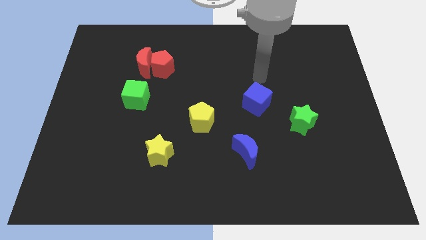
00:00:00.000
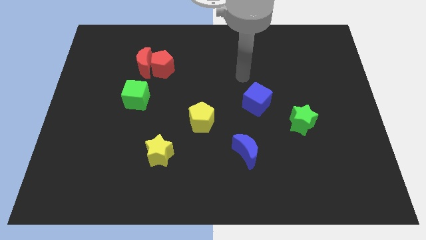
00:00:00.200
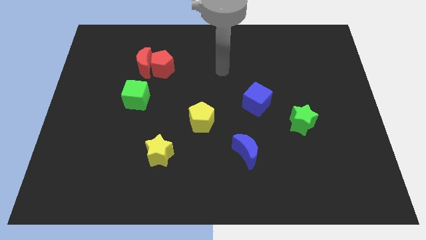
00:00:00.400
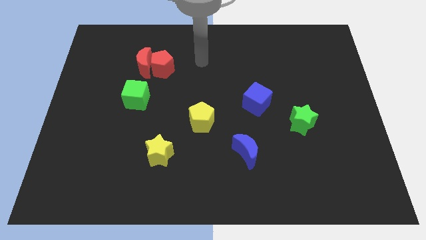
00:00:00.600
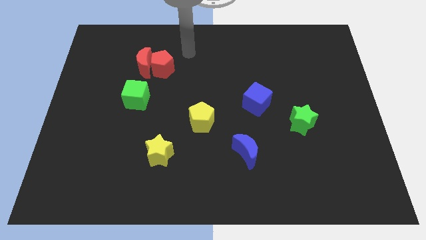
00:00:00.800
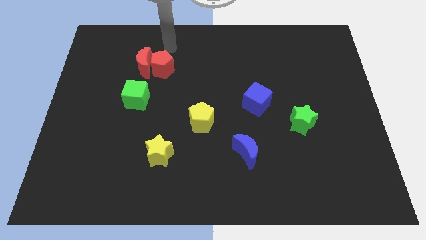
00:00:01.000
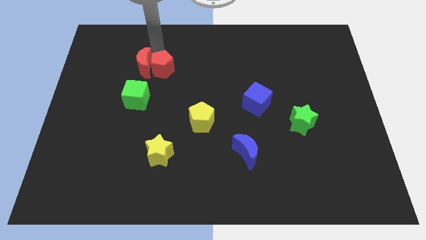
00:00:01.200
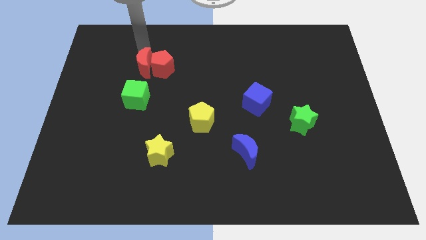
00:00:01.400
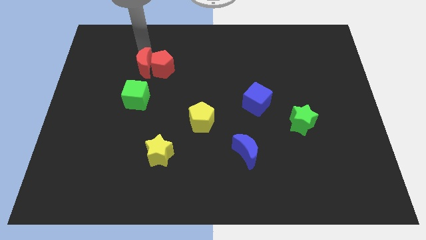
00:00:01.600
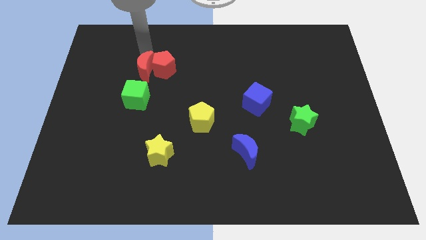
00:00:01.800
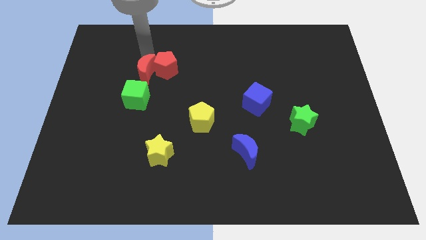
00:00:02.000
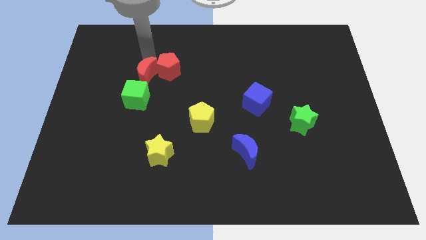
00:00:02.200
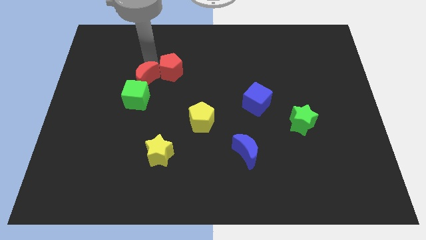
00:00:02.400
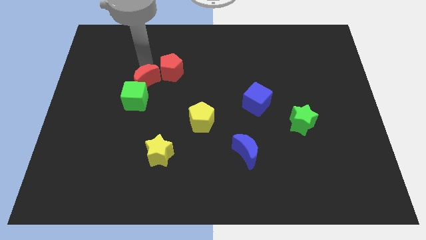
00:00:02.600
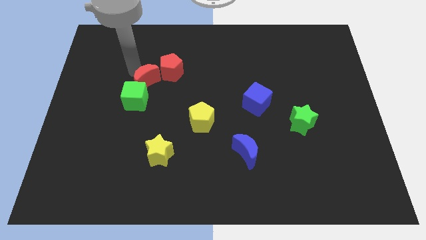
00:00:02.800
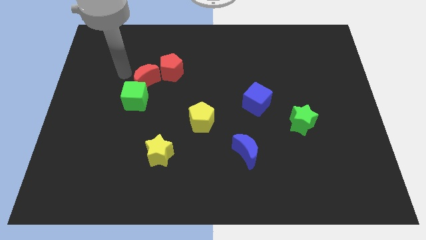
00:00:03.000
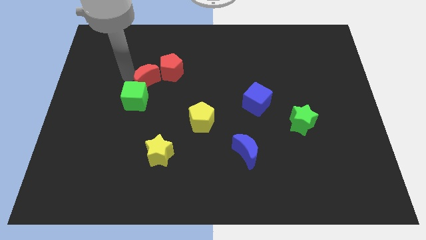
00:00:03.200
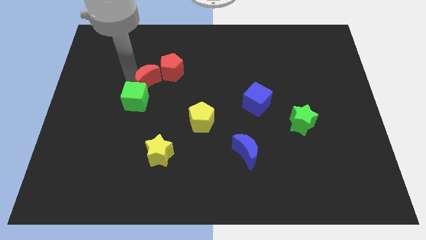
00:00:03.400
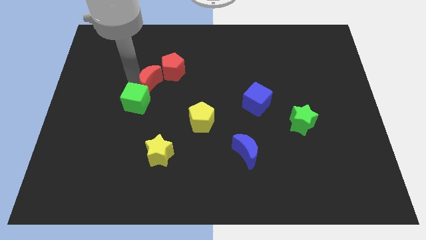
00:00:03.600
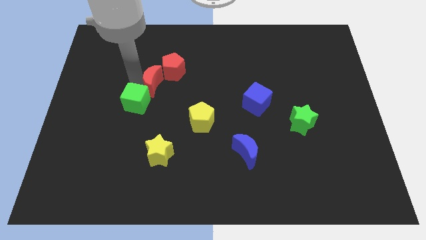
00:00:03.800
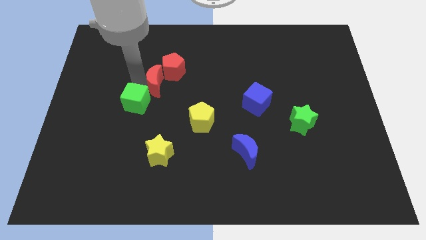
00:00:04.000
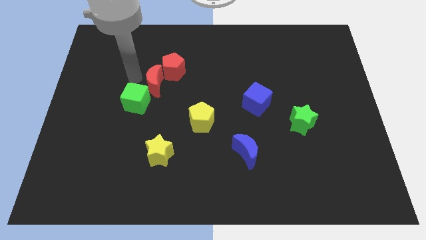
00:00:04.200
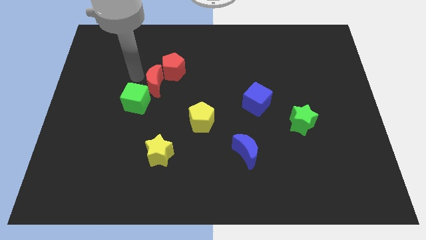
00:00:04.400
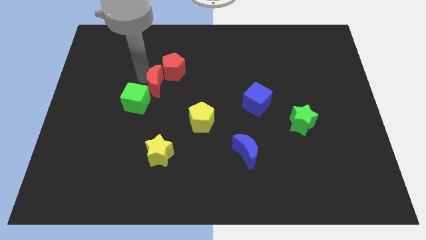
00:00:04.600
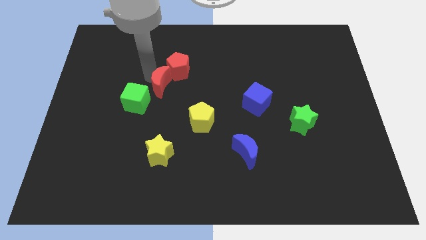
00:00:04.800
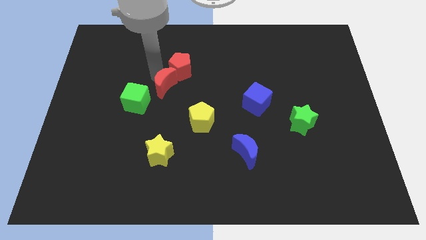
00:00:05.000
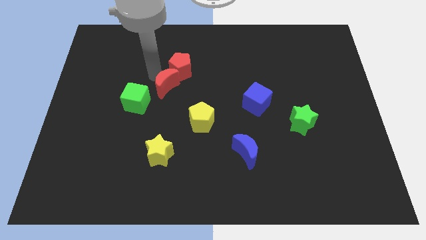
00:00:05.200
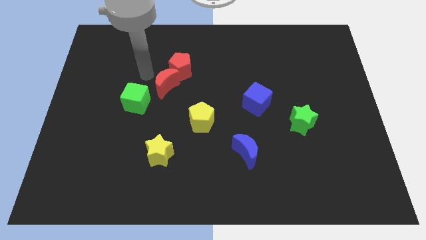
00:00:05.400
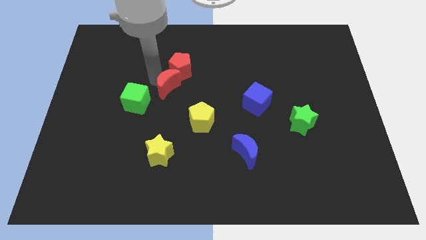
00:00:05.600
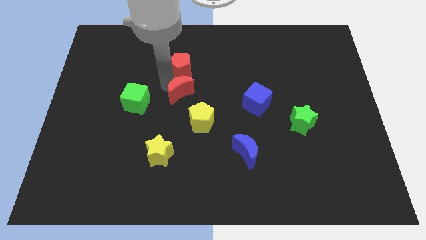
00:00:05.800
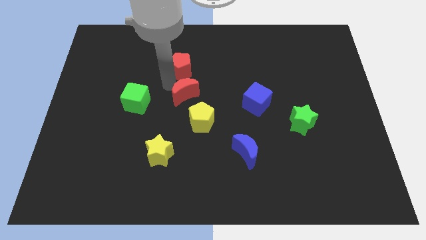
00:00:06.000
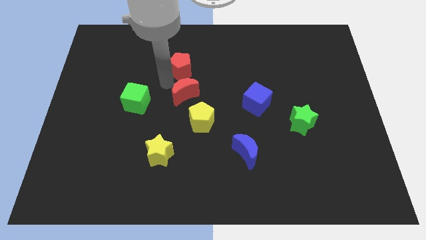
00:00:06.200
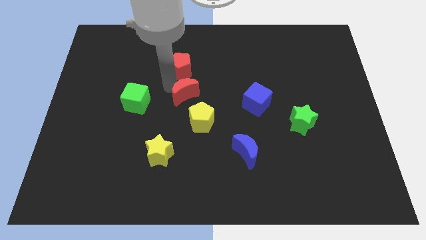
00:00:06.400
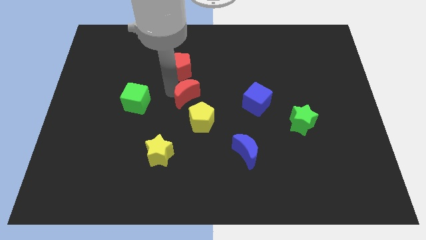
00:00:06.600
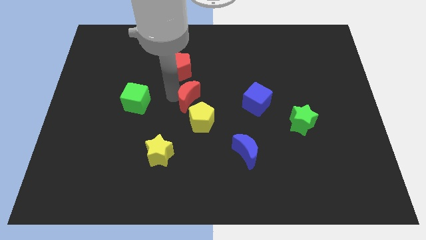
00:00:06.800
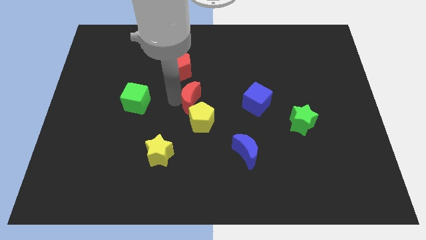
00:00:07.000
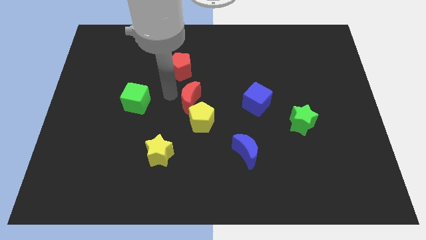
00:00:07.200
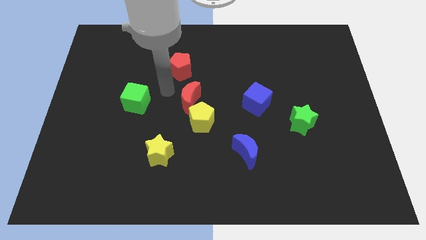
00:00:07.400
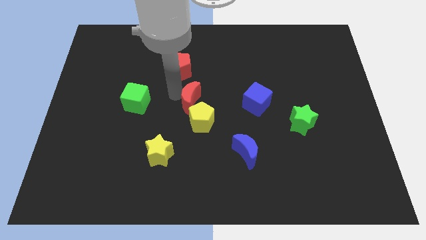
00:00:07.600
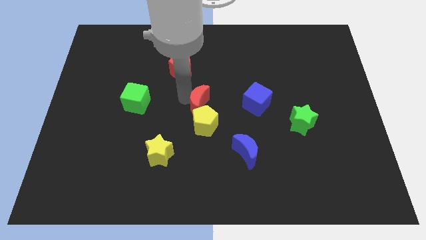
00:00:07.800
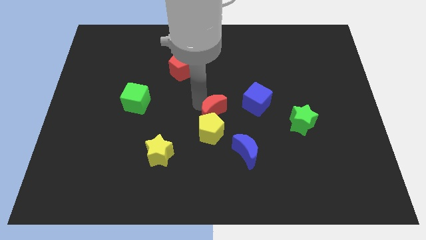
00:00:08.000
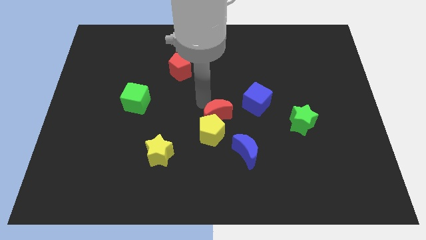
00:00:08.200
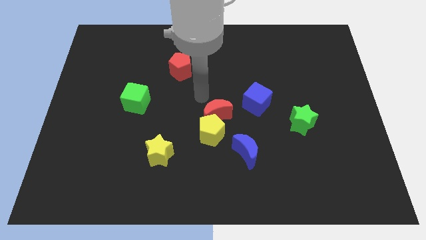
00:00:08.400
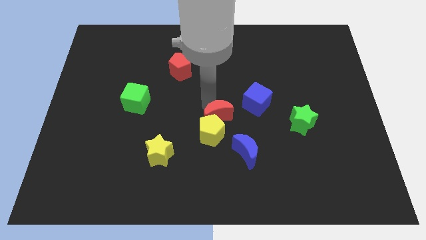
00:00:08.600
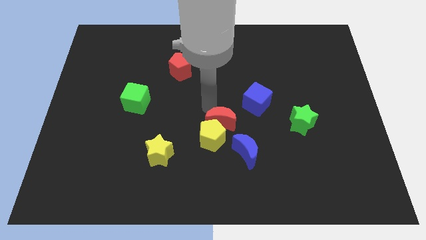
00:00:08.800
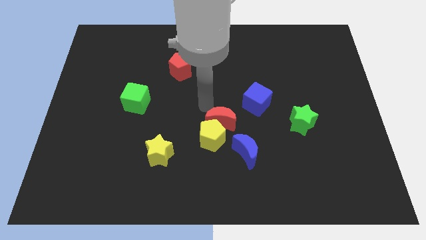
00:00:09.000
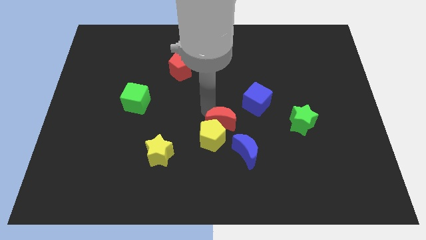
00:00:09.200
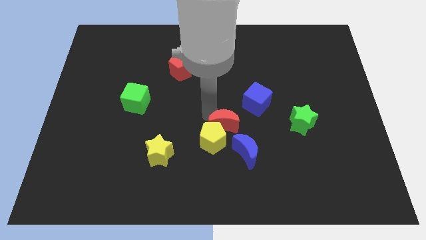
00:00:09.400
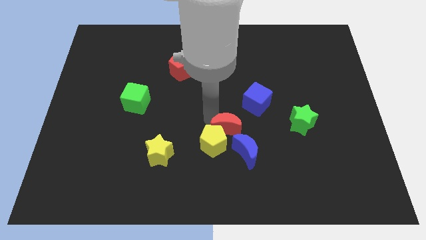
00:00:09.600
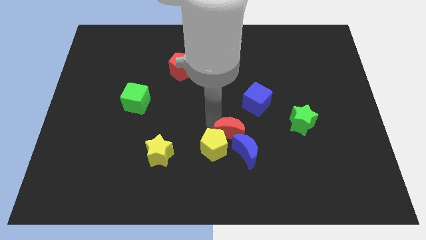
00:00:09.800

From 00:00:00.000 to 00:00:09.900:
push the red moon to the blue moon

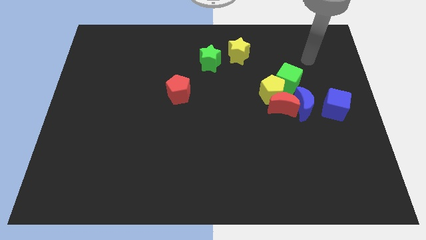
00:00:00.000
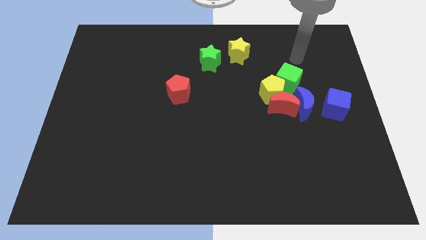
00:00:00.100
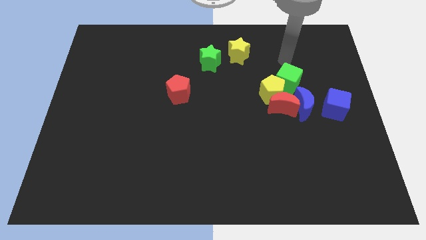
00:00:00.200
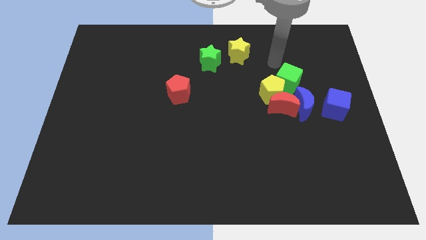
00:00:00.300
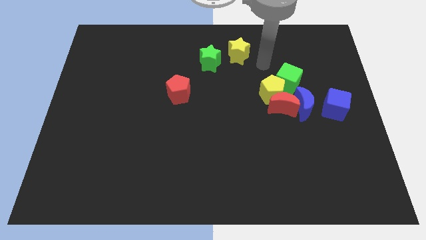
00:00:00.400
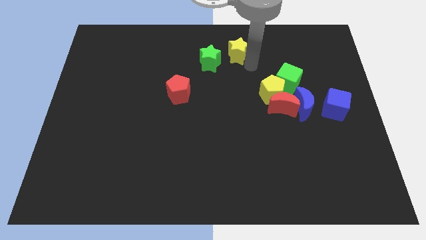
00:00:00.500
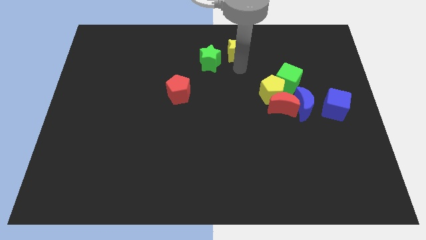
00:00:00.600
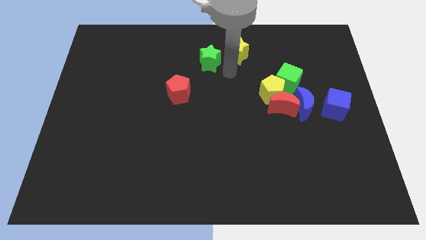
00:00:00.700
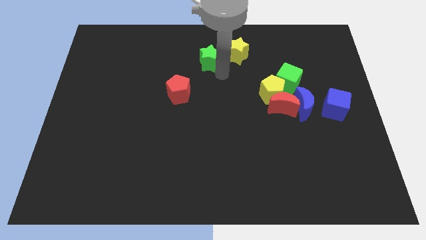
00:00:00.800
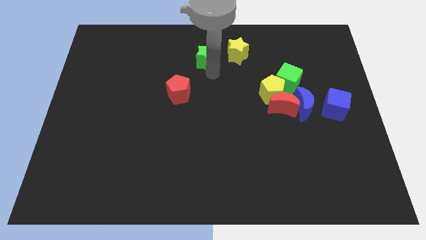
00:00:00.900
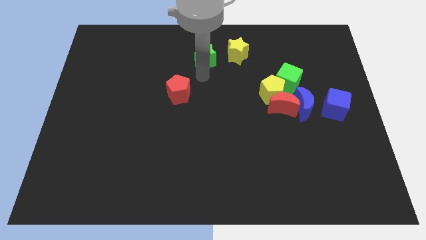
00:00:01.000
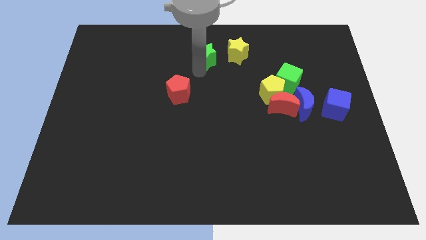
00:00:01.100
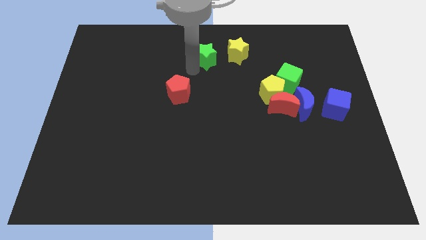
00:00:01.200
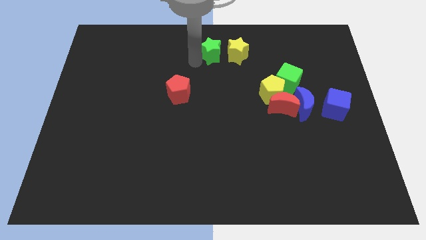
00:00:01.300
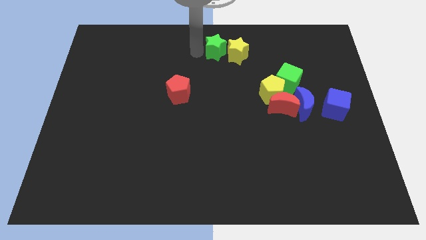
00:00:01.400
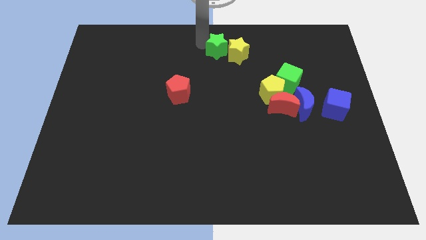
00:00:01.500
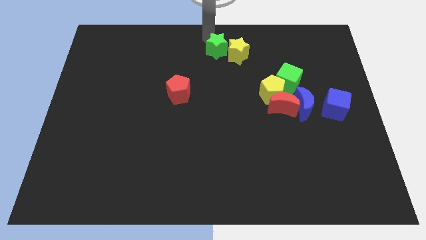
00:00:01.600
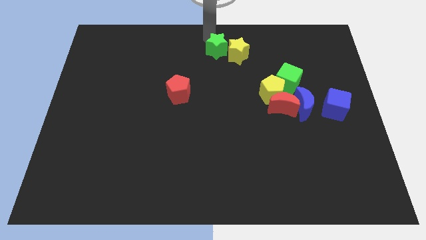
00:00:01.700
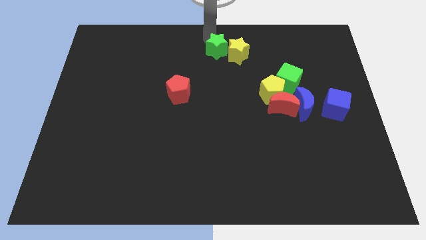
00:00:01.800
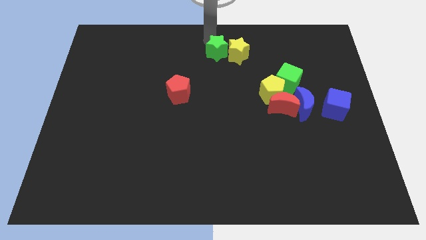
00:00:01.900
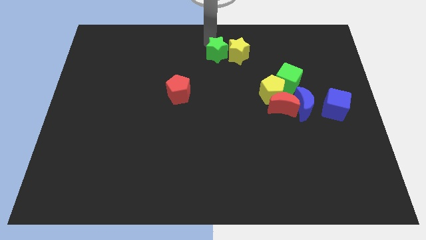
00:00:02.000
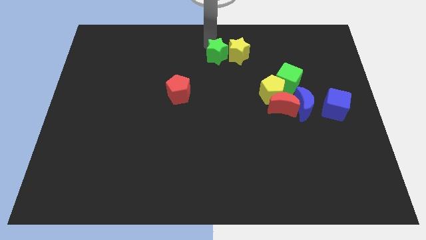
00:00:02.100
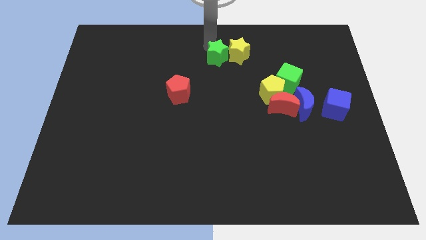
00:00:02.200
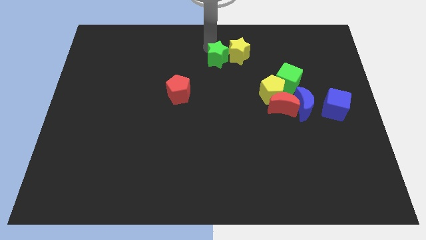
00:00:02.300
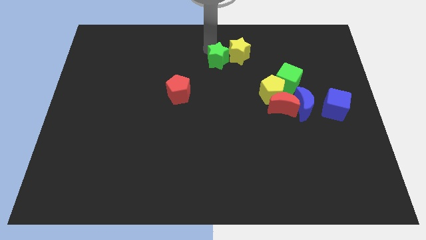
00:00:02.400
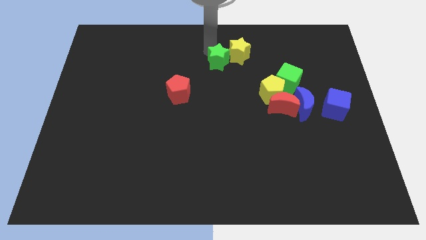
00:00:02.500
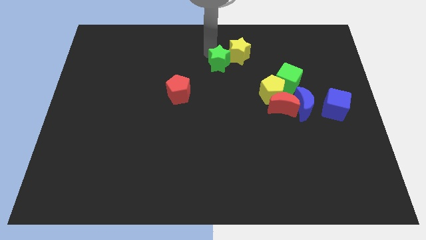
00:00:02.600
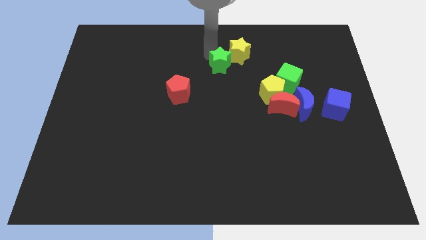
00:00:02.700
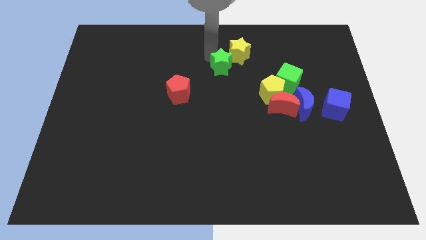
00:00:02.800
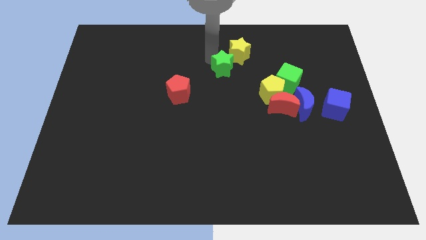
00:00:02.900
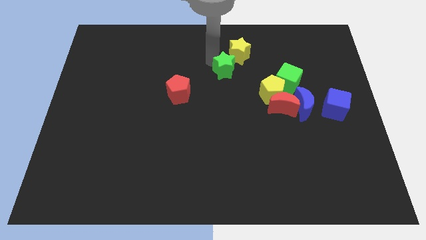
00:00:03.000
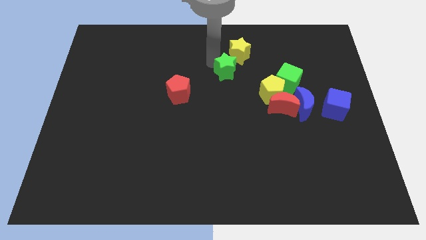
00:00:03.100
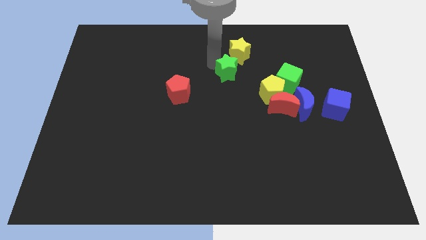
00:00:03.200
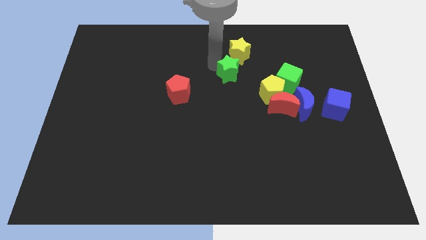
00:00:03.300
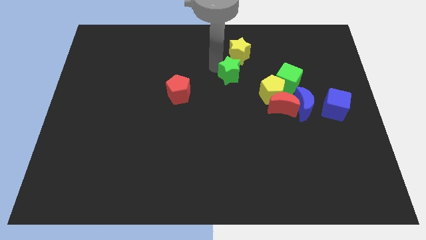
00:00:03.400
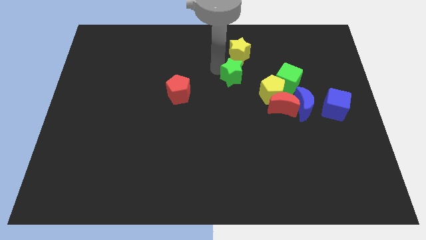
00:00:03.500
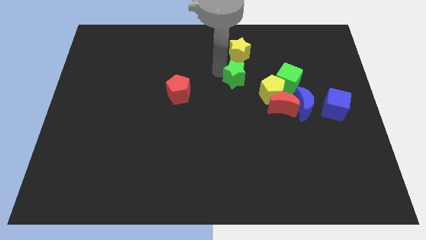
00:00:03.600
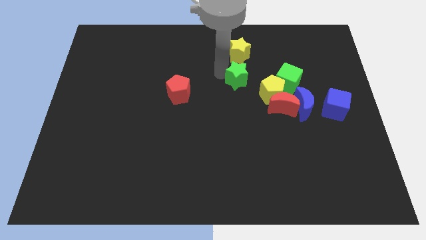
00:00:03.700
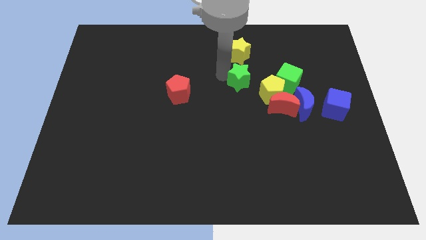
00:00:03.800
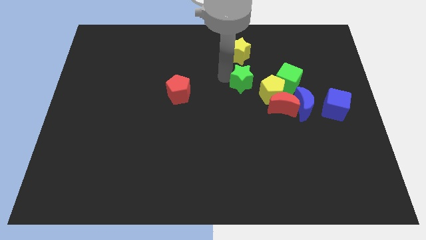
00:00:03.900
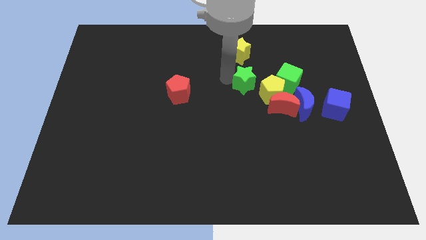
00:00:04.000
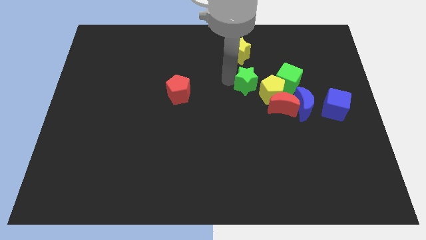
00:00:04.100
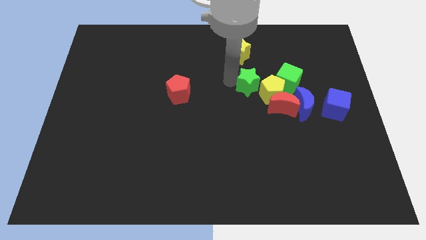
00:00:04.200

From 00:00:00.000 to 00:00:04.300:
slide the green star towards the yellow pentagon
